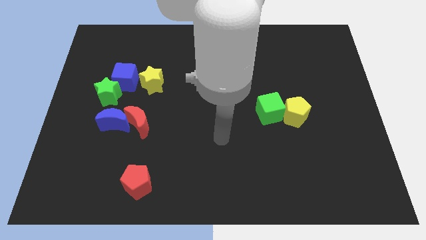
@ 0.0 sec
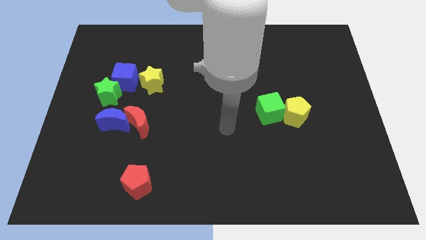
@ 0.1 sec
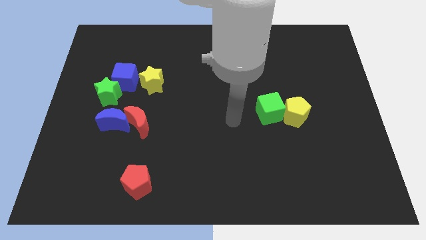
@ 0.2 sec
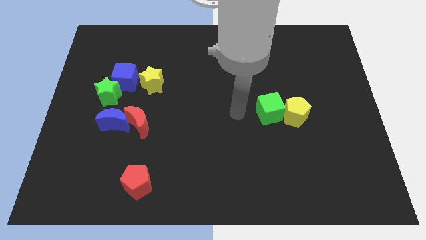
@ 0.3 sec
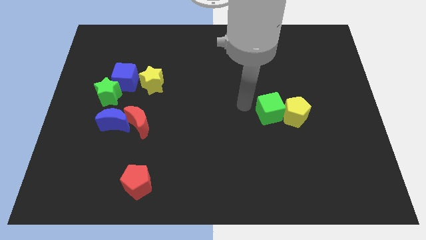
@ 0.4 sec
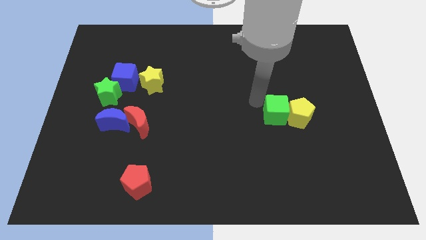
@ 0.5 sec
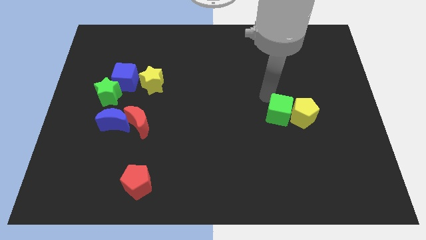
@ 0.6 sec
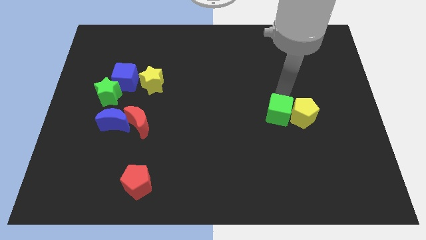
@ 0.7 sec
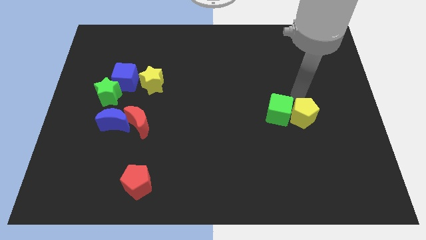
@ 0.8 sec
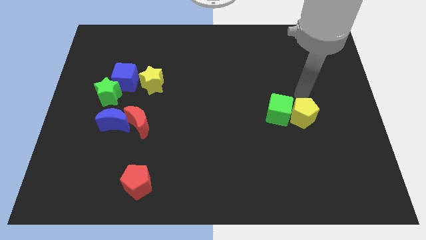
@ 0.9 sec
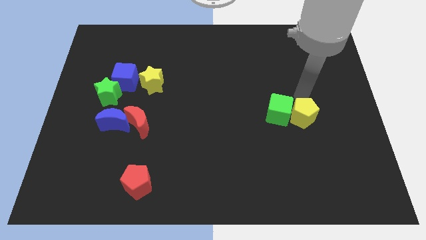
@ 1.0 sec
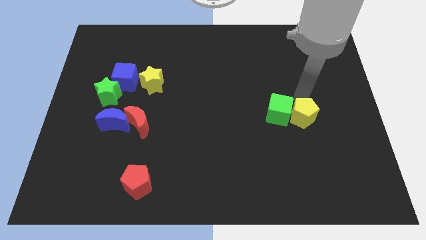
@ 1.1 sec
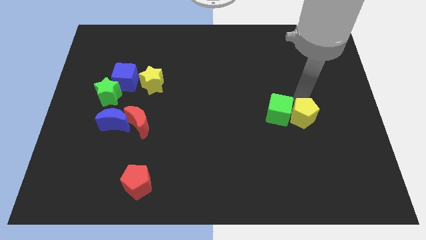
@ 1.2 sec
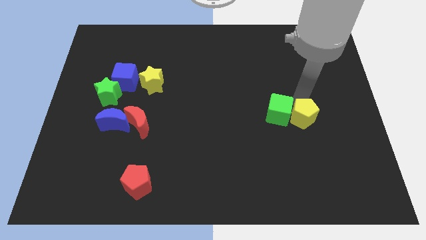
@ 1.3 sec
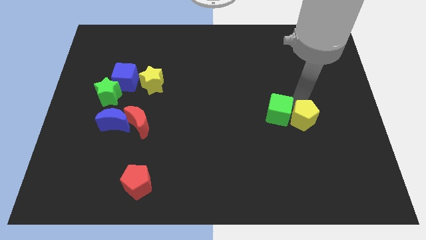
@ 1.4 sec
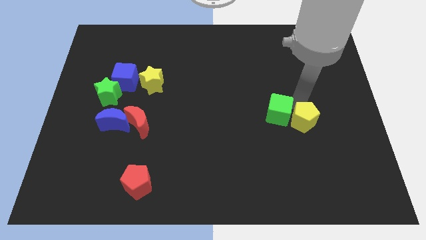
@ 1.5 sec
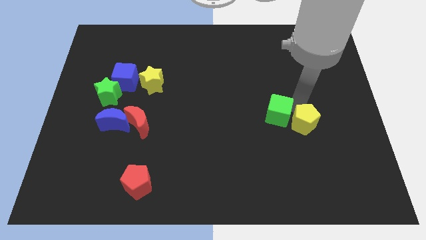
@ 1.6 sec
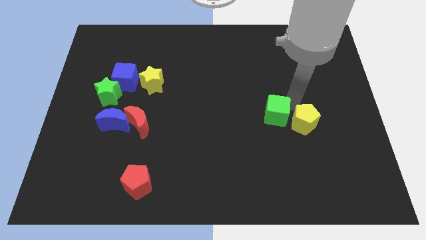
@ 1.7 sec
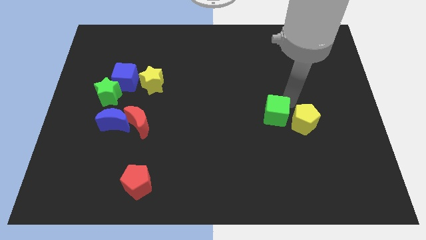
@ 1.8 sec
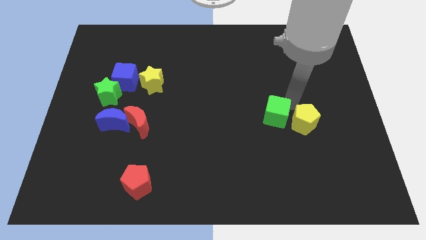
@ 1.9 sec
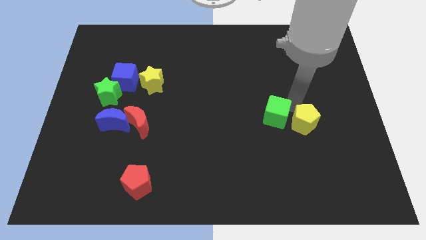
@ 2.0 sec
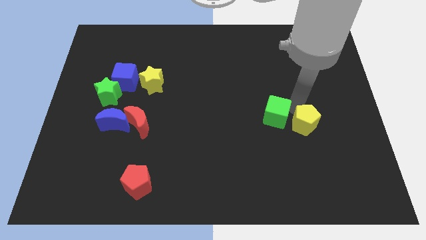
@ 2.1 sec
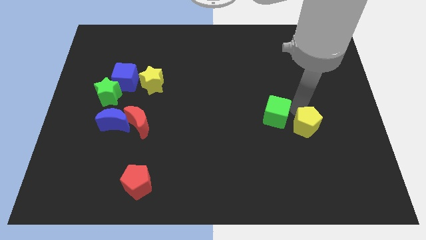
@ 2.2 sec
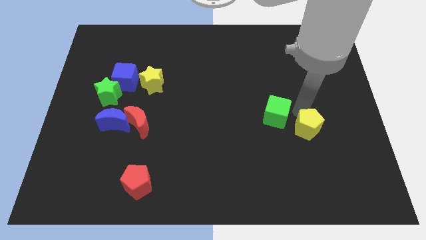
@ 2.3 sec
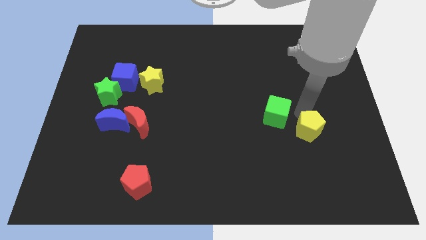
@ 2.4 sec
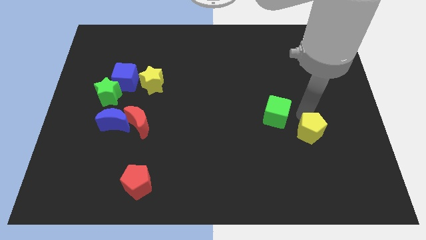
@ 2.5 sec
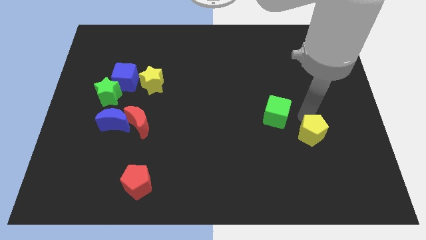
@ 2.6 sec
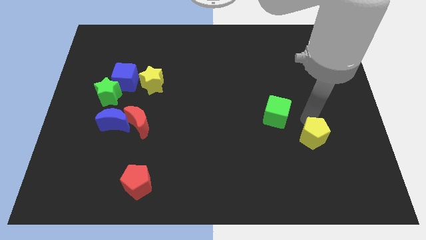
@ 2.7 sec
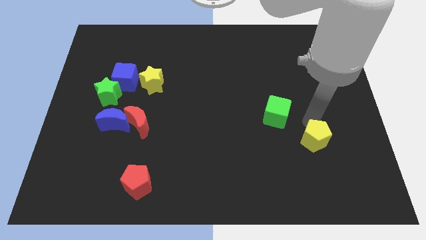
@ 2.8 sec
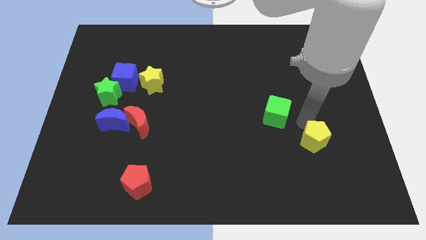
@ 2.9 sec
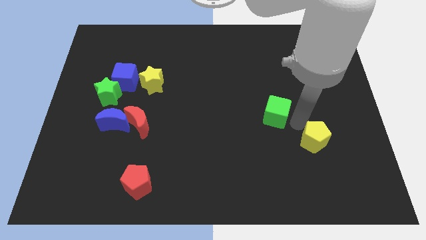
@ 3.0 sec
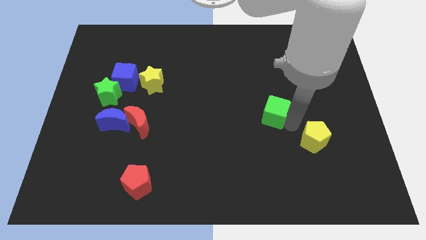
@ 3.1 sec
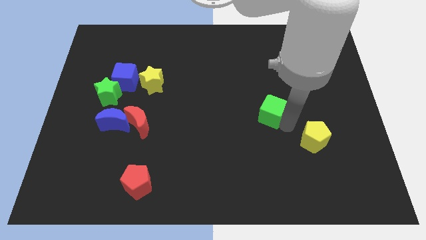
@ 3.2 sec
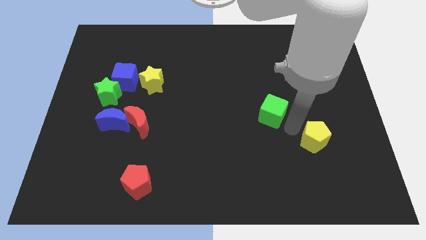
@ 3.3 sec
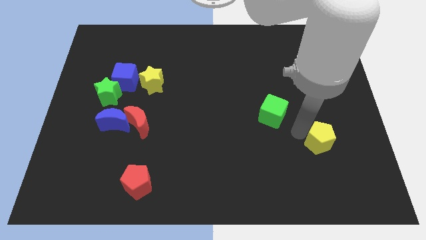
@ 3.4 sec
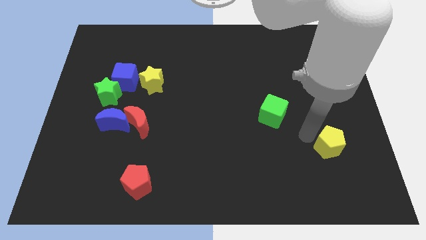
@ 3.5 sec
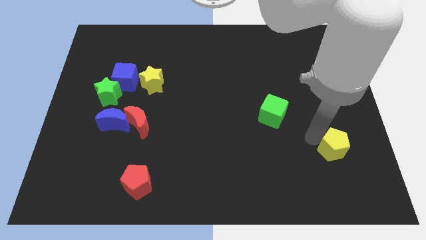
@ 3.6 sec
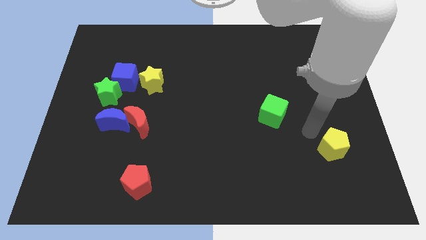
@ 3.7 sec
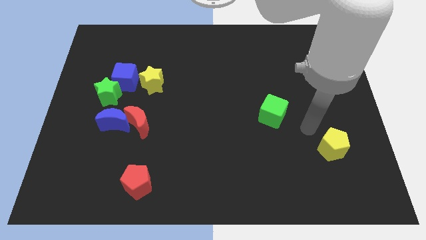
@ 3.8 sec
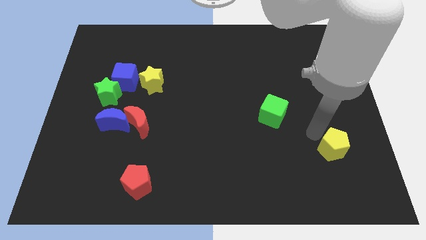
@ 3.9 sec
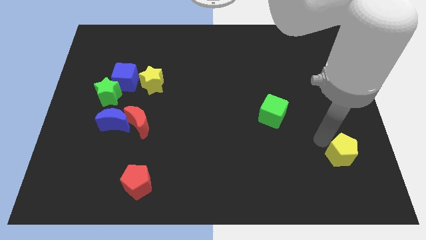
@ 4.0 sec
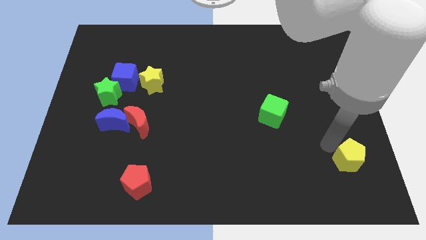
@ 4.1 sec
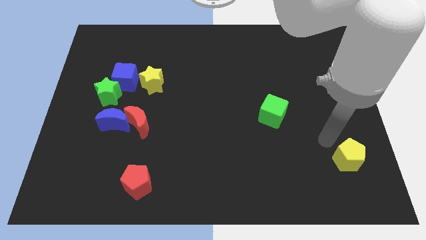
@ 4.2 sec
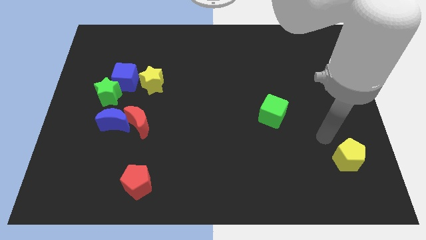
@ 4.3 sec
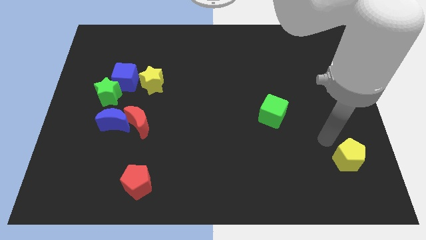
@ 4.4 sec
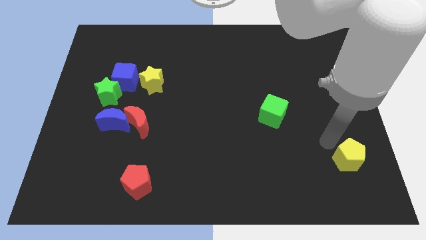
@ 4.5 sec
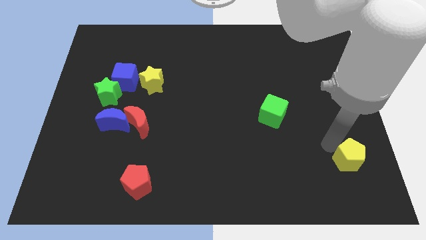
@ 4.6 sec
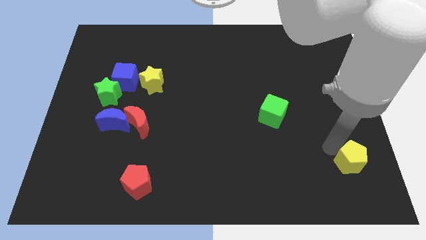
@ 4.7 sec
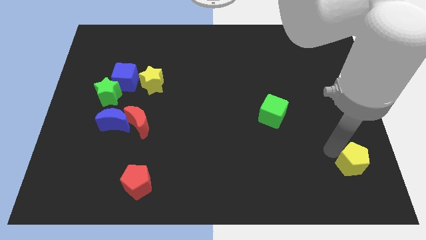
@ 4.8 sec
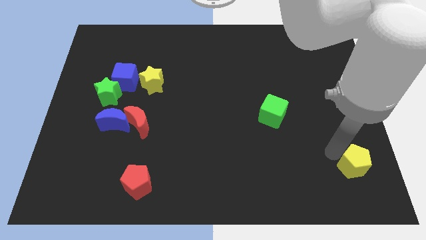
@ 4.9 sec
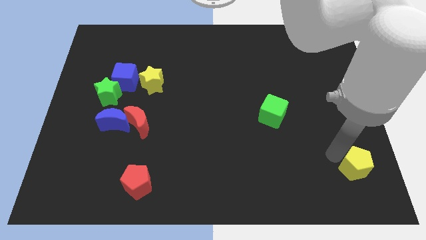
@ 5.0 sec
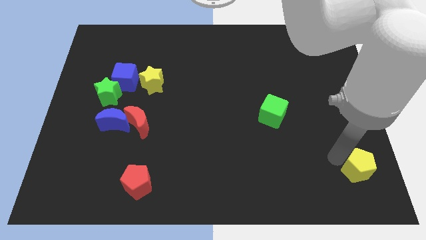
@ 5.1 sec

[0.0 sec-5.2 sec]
slide the yellow pentagon to the lower right corner

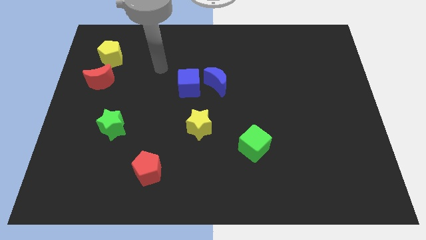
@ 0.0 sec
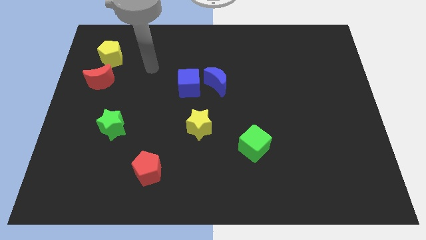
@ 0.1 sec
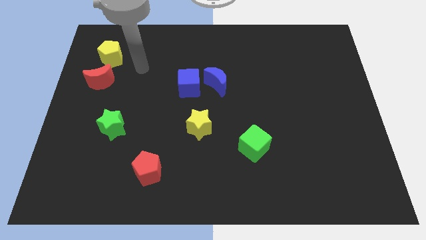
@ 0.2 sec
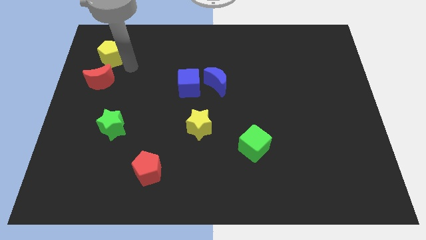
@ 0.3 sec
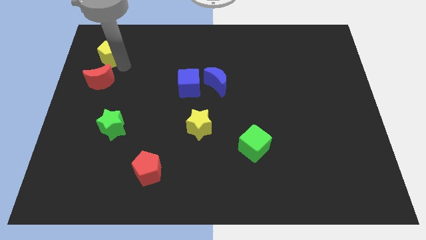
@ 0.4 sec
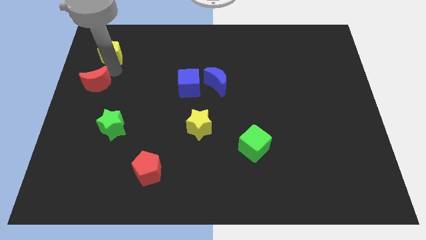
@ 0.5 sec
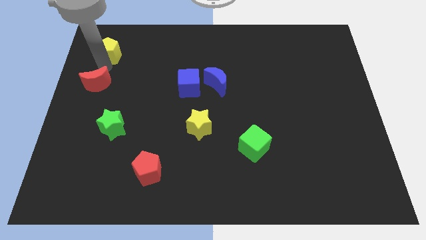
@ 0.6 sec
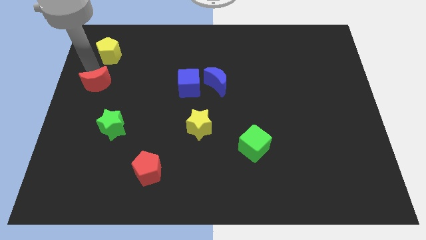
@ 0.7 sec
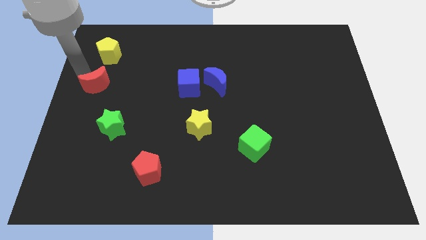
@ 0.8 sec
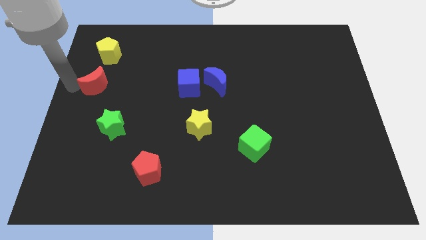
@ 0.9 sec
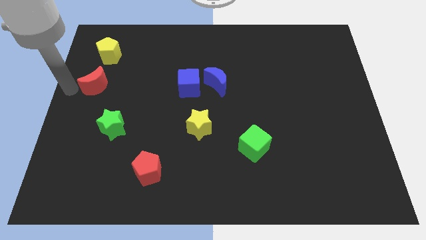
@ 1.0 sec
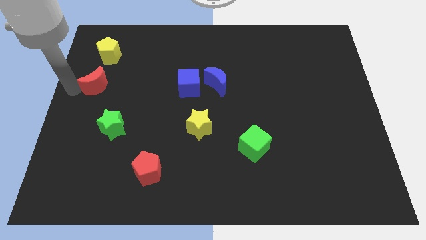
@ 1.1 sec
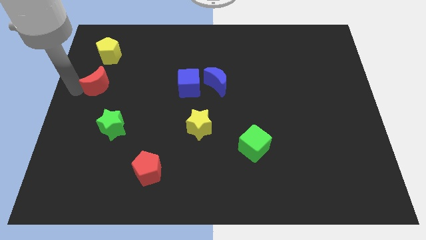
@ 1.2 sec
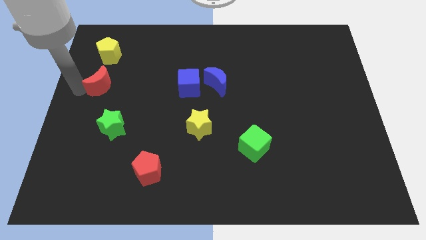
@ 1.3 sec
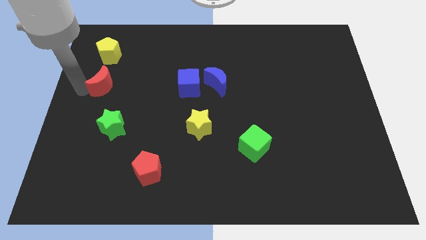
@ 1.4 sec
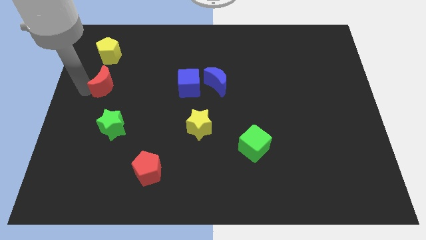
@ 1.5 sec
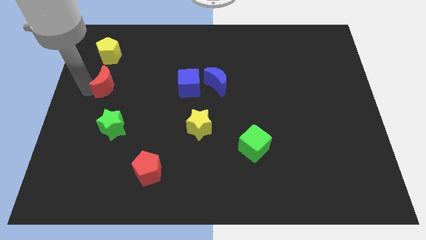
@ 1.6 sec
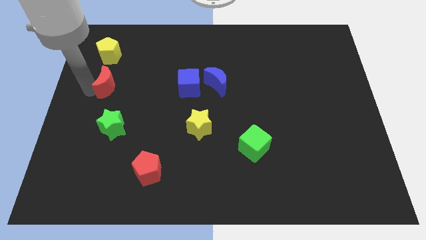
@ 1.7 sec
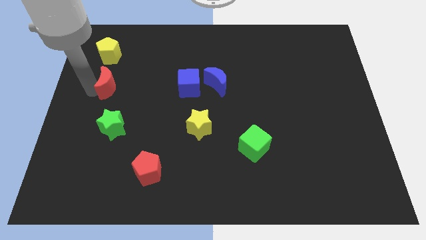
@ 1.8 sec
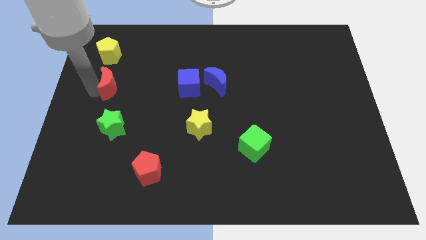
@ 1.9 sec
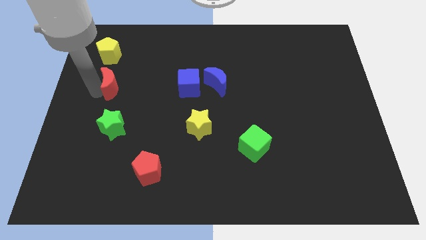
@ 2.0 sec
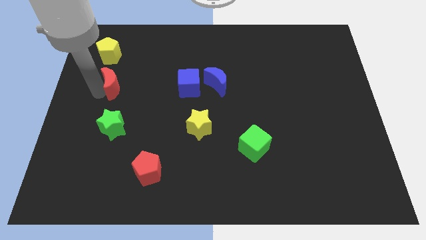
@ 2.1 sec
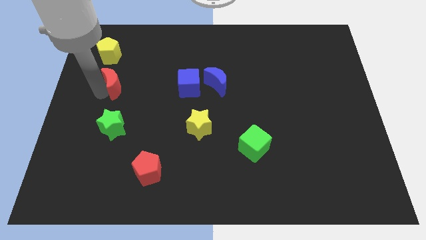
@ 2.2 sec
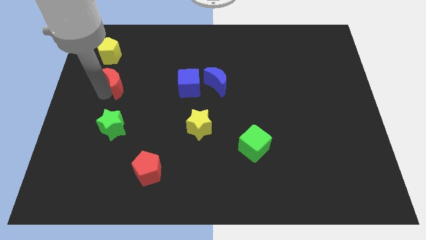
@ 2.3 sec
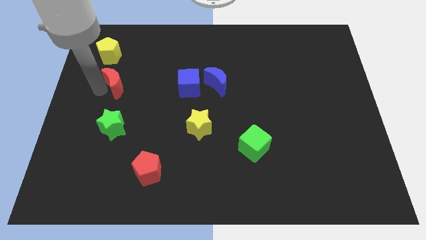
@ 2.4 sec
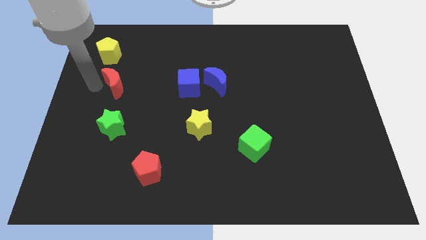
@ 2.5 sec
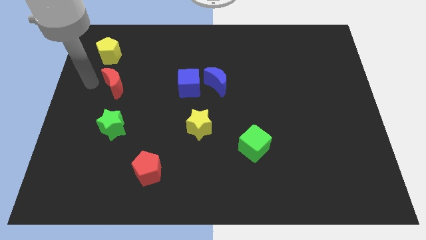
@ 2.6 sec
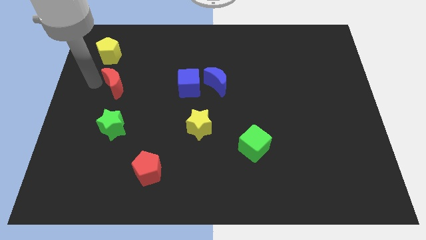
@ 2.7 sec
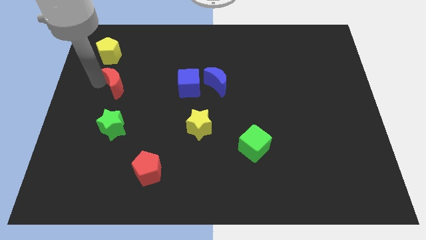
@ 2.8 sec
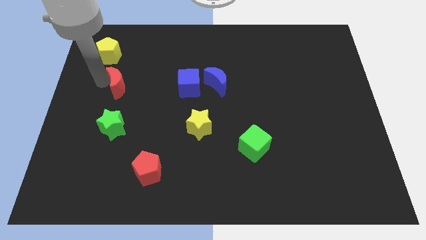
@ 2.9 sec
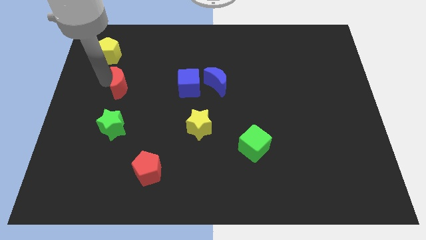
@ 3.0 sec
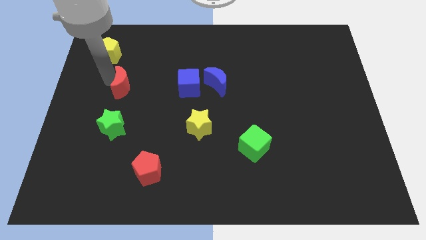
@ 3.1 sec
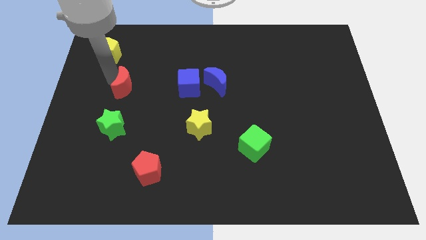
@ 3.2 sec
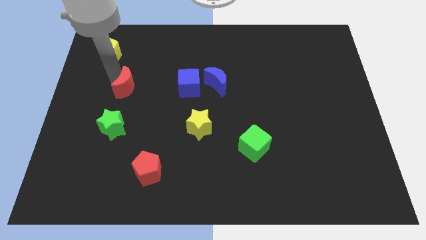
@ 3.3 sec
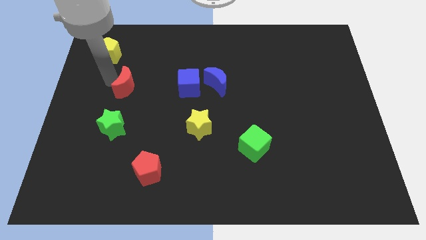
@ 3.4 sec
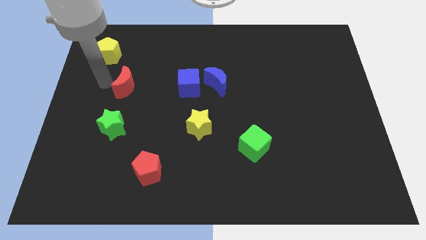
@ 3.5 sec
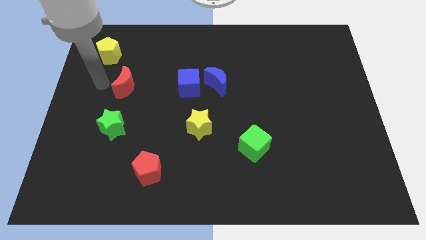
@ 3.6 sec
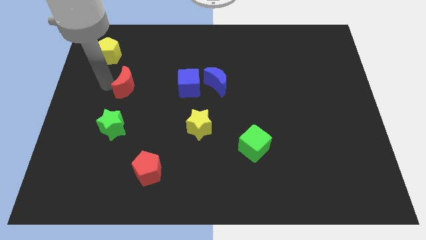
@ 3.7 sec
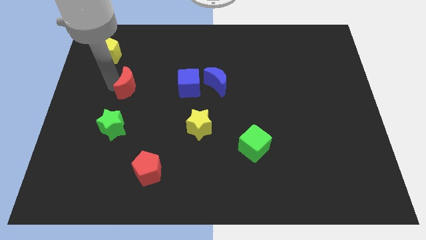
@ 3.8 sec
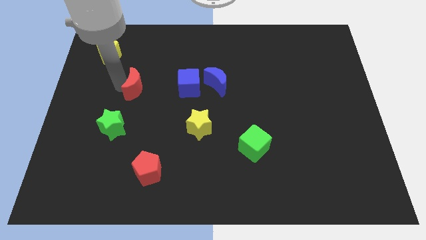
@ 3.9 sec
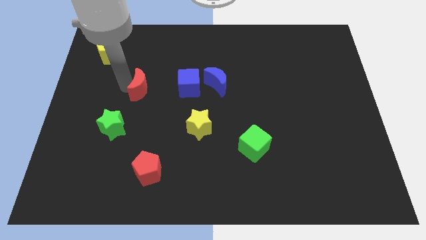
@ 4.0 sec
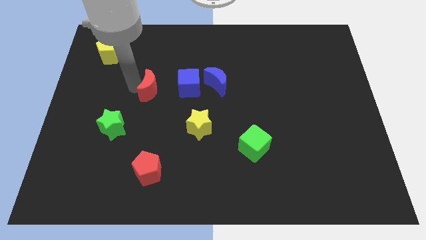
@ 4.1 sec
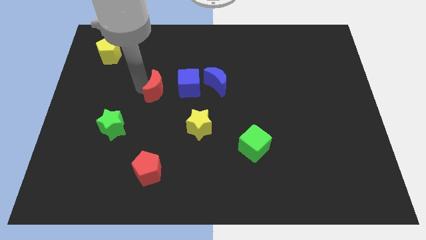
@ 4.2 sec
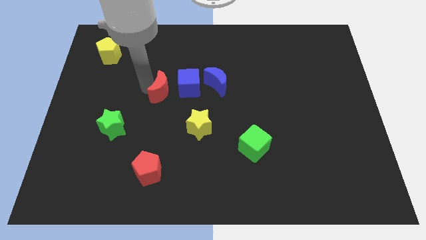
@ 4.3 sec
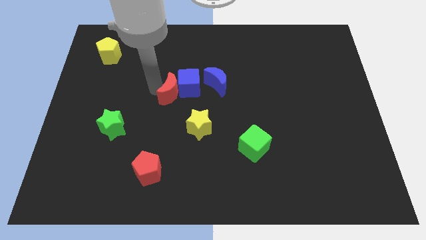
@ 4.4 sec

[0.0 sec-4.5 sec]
move the red moon to the center
